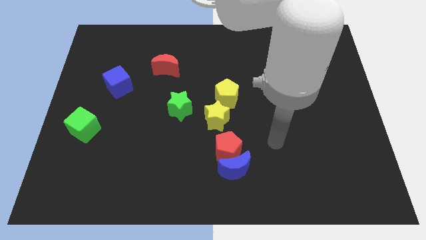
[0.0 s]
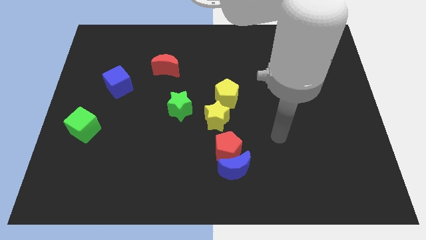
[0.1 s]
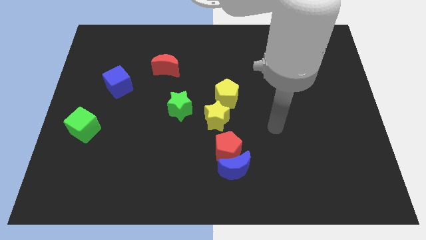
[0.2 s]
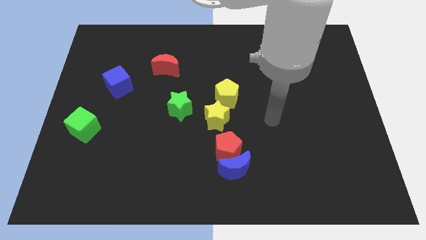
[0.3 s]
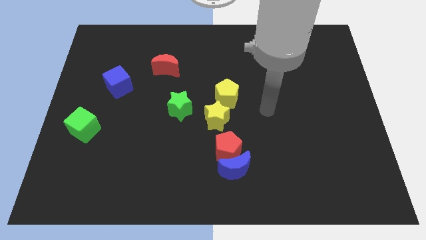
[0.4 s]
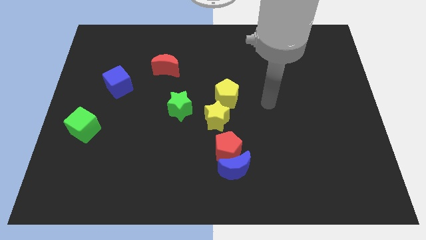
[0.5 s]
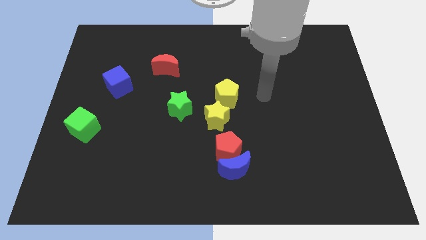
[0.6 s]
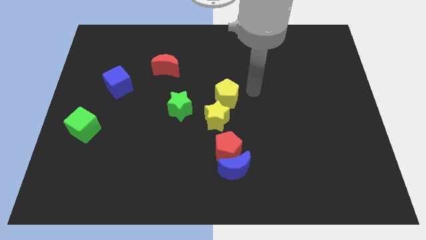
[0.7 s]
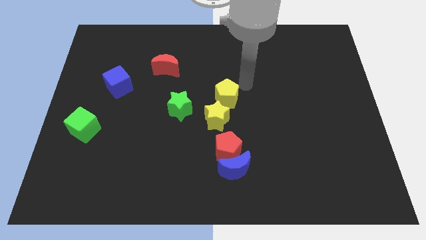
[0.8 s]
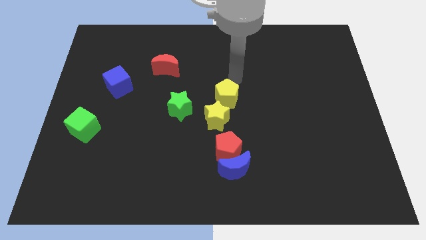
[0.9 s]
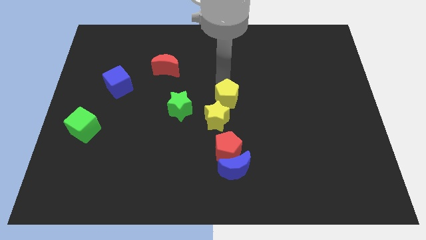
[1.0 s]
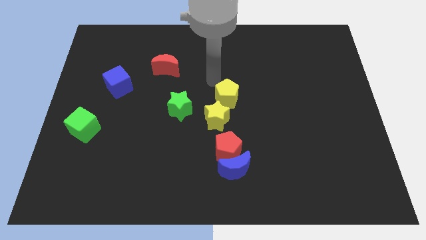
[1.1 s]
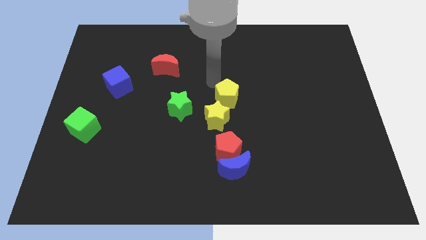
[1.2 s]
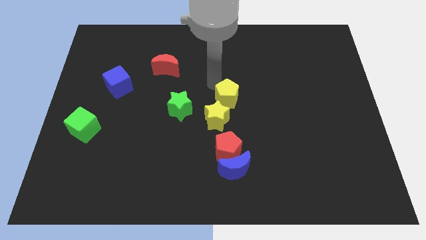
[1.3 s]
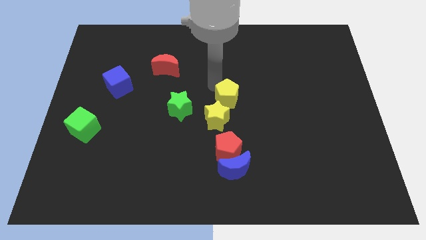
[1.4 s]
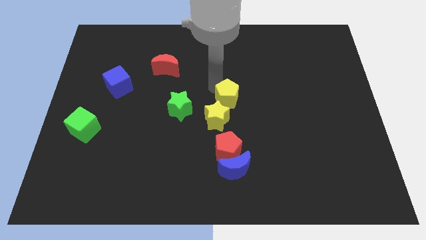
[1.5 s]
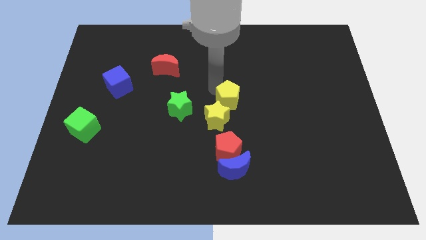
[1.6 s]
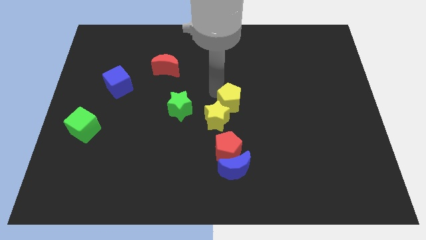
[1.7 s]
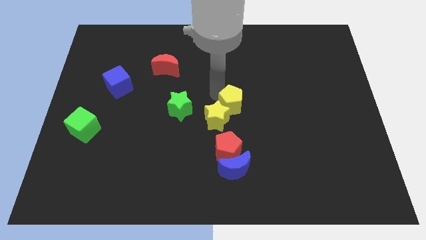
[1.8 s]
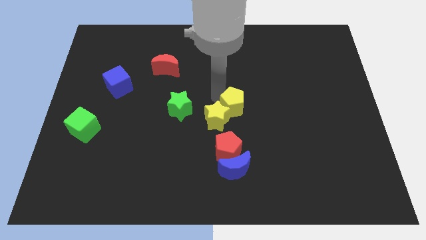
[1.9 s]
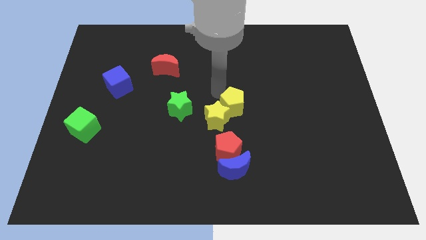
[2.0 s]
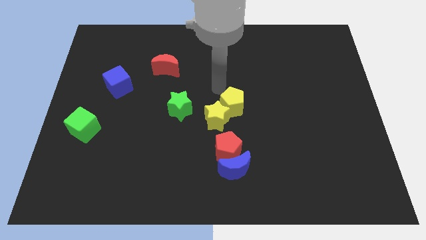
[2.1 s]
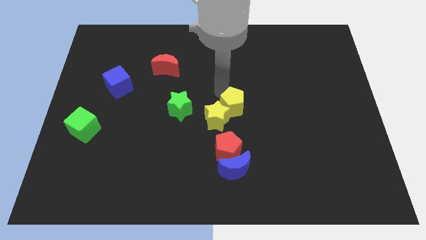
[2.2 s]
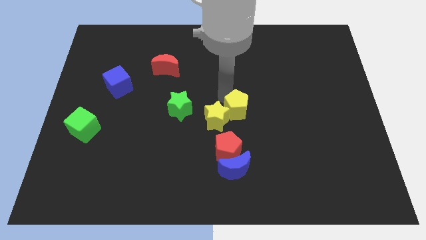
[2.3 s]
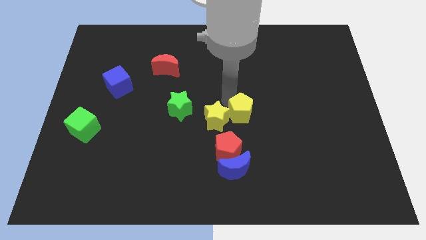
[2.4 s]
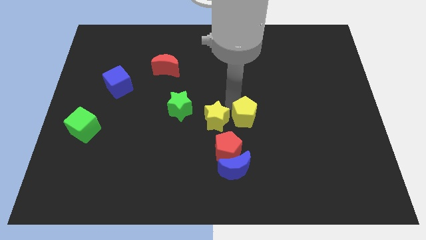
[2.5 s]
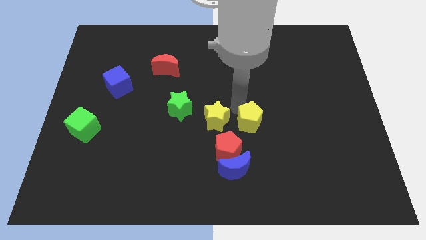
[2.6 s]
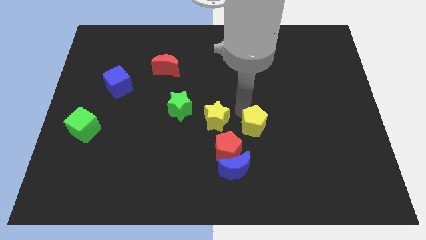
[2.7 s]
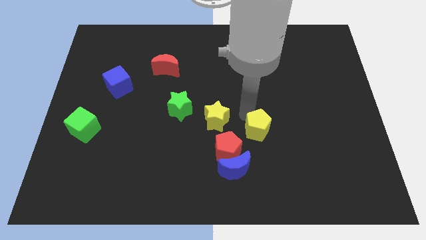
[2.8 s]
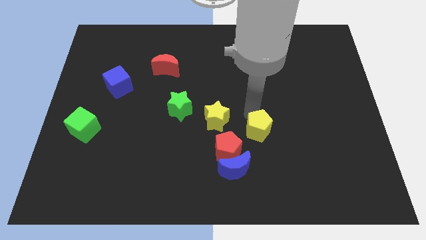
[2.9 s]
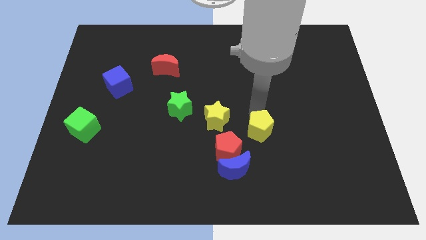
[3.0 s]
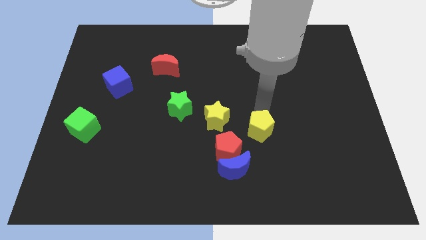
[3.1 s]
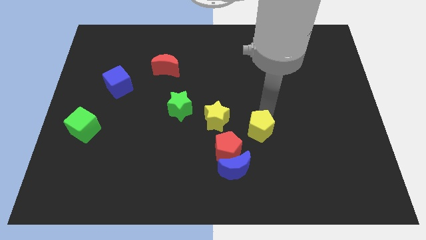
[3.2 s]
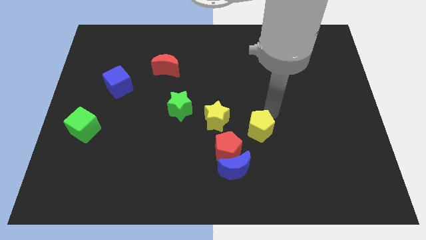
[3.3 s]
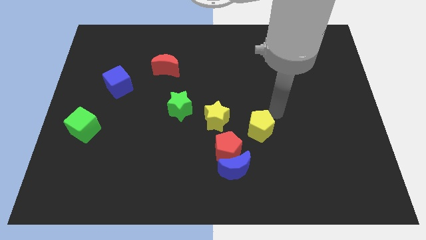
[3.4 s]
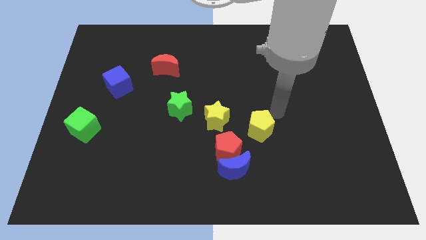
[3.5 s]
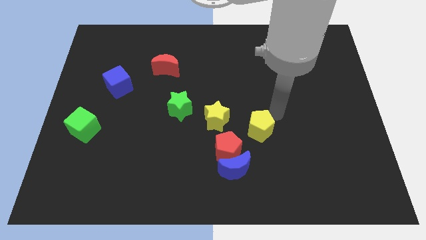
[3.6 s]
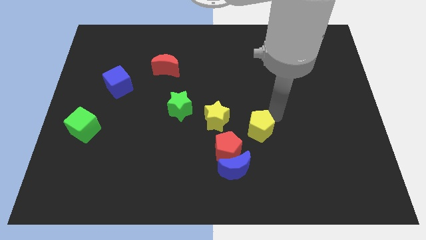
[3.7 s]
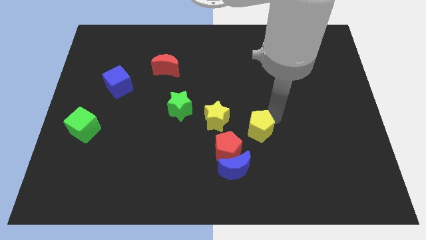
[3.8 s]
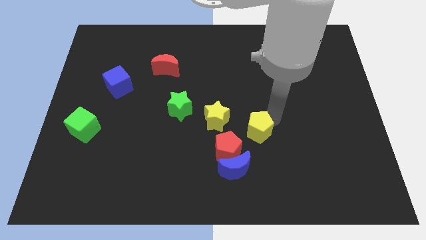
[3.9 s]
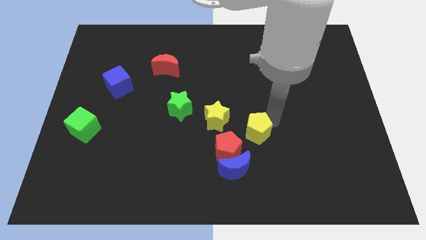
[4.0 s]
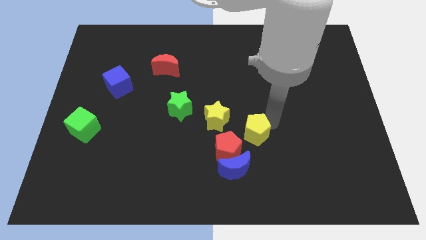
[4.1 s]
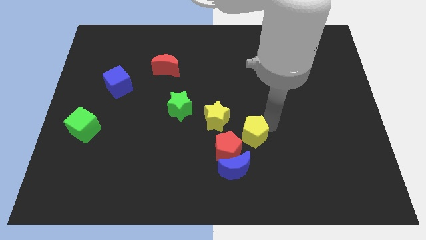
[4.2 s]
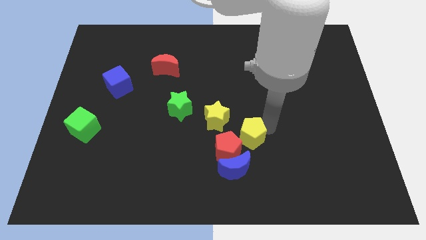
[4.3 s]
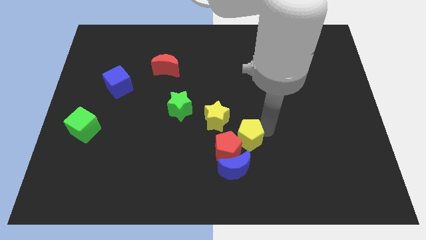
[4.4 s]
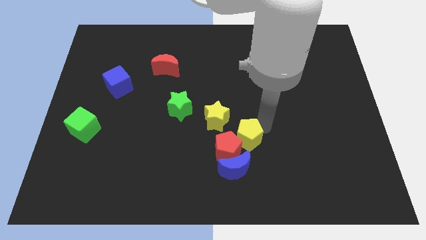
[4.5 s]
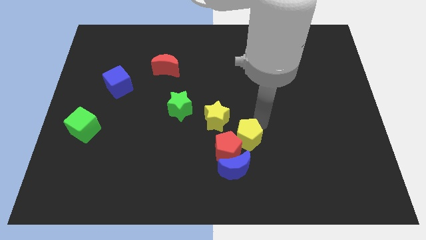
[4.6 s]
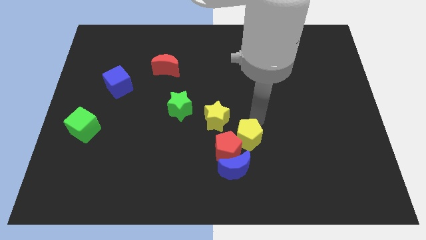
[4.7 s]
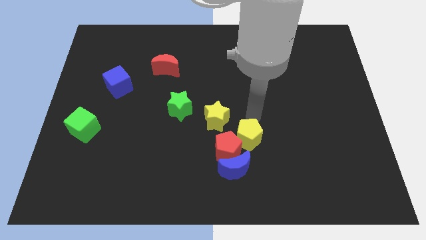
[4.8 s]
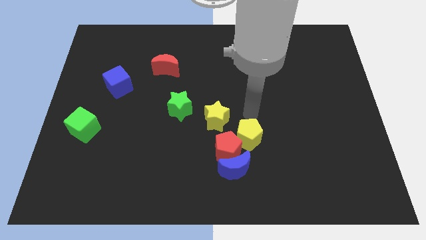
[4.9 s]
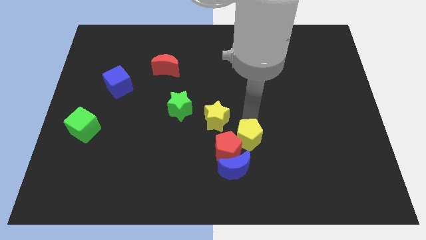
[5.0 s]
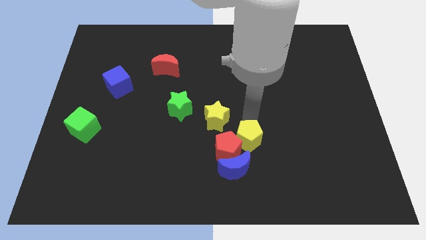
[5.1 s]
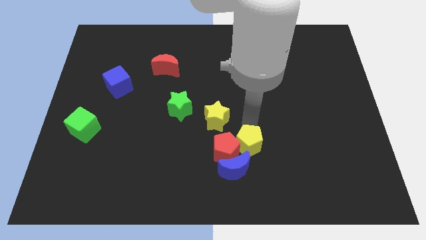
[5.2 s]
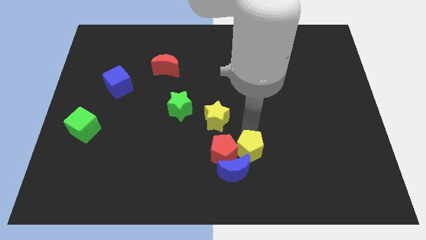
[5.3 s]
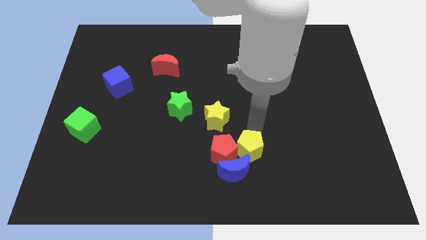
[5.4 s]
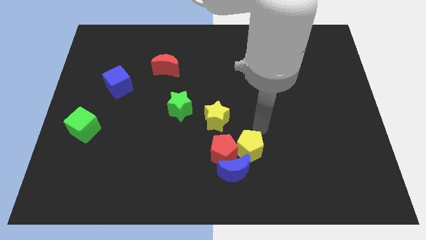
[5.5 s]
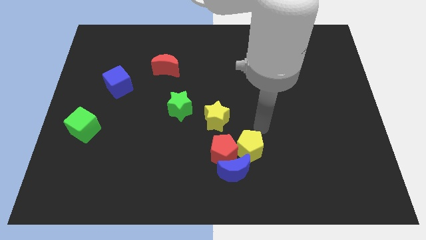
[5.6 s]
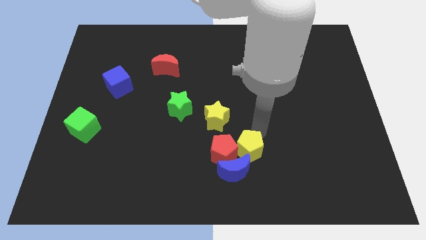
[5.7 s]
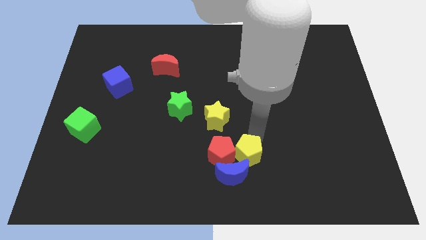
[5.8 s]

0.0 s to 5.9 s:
put the yellow pentagon to the blue moon

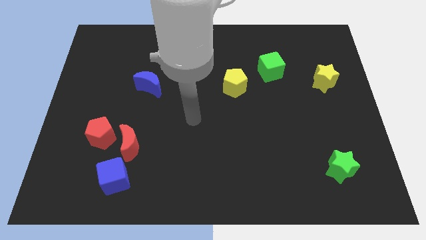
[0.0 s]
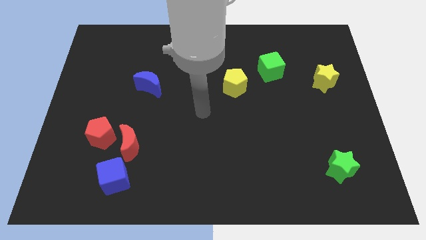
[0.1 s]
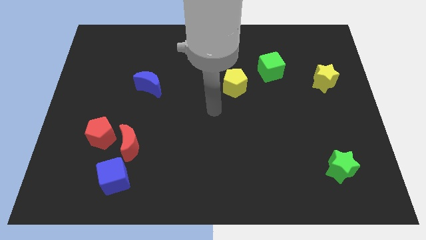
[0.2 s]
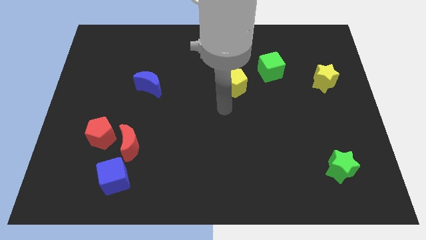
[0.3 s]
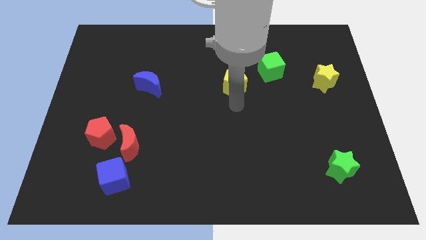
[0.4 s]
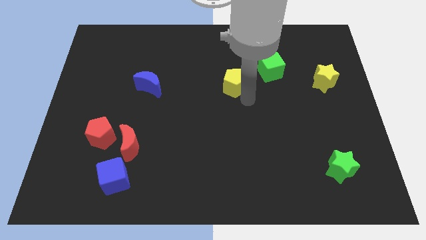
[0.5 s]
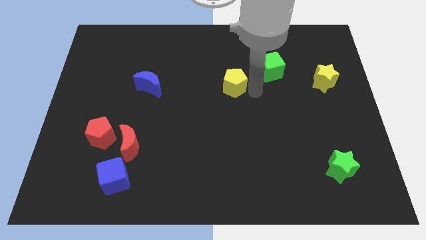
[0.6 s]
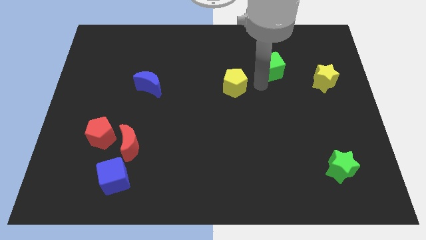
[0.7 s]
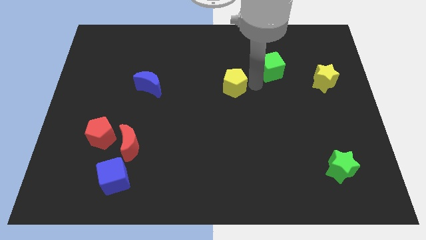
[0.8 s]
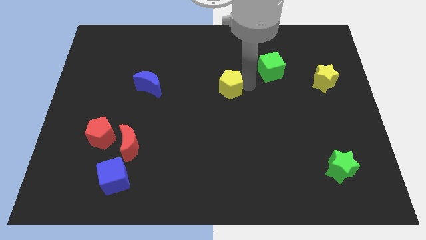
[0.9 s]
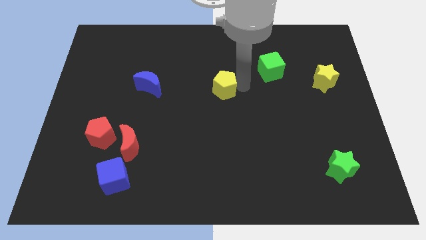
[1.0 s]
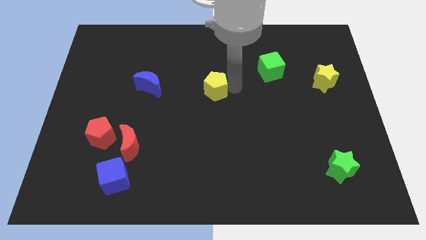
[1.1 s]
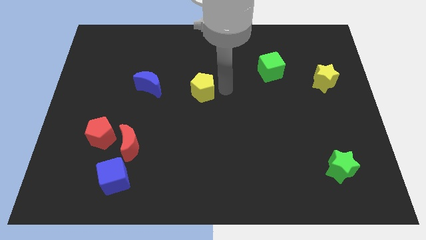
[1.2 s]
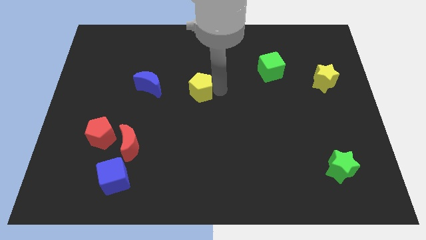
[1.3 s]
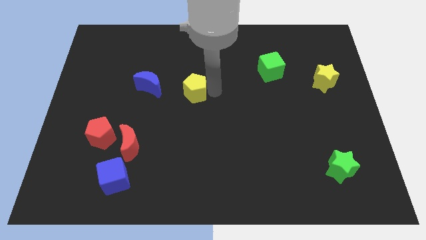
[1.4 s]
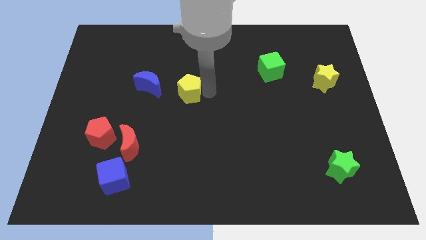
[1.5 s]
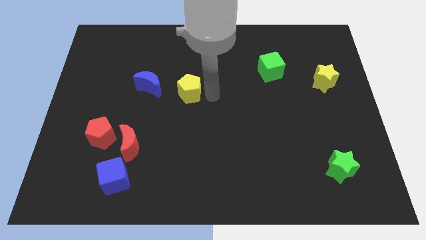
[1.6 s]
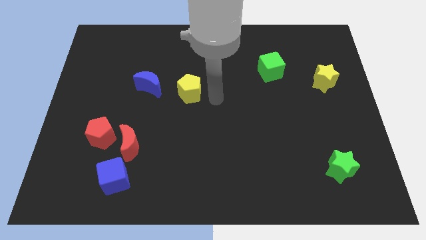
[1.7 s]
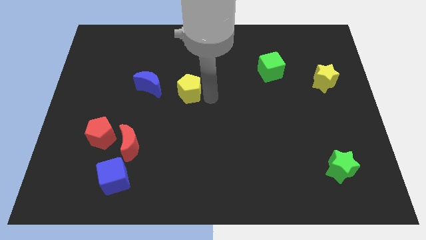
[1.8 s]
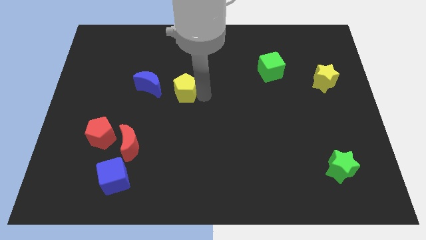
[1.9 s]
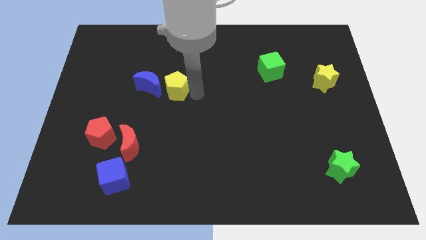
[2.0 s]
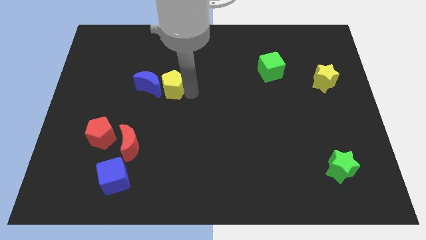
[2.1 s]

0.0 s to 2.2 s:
push the yellow pentagon to the blue moon
